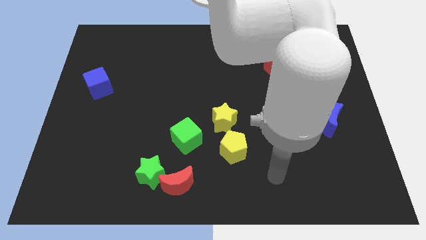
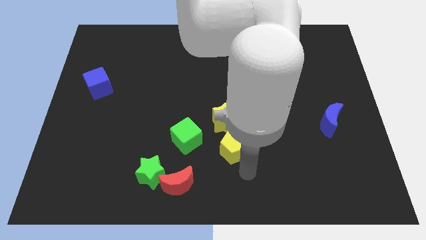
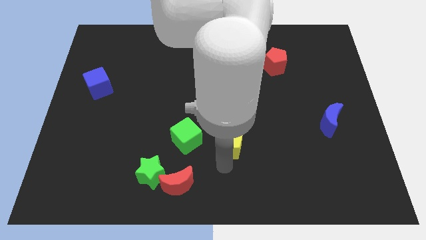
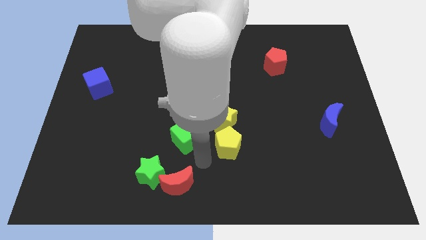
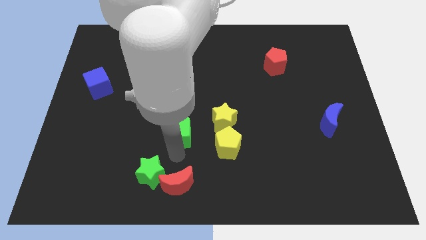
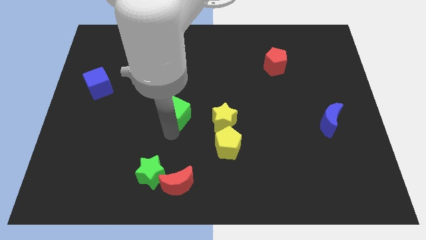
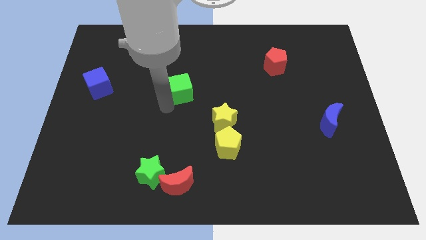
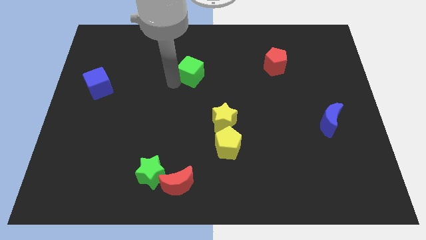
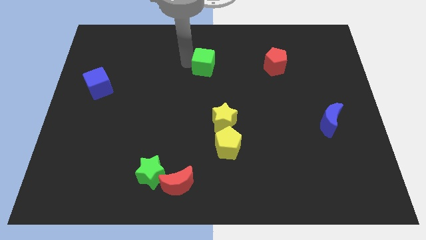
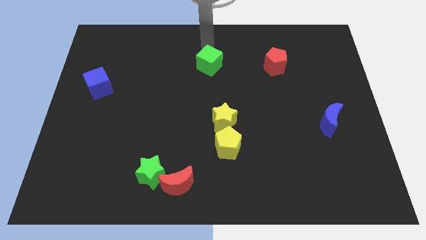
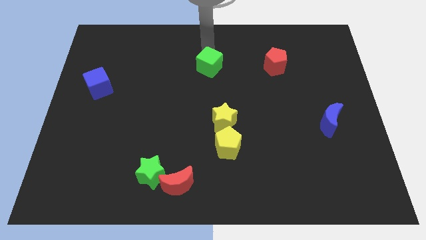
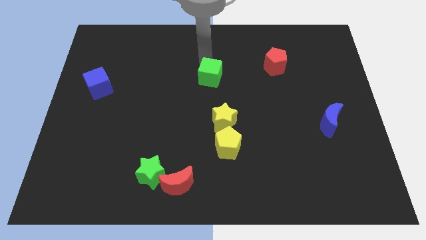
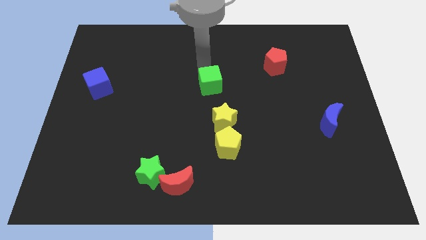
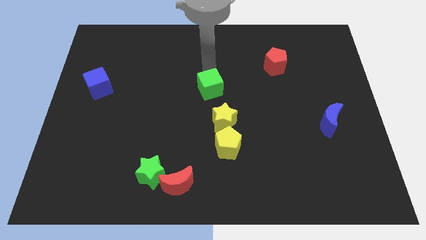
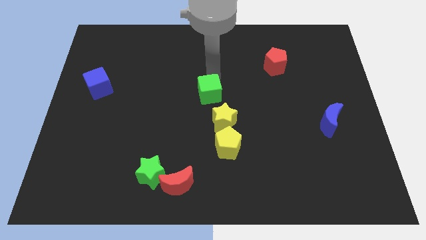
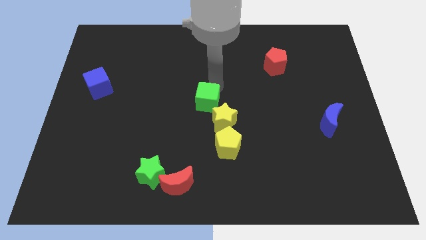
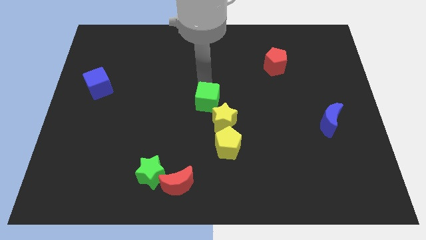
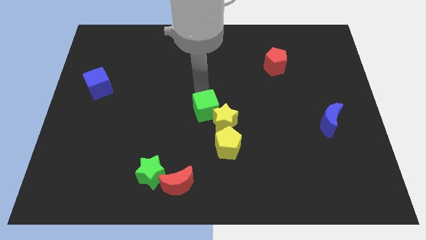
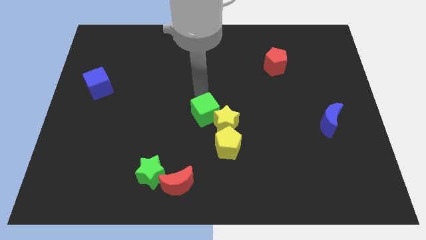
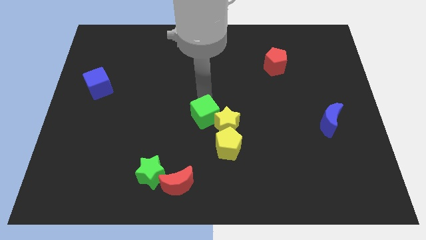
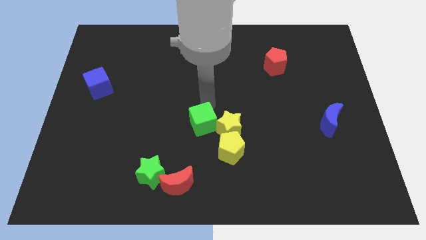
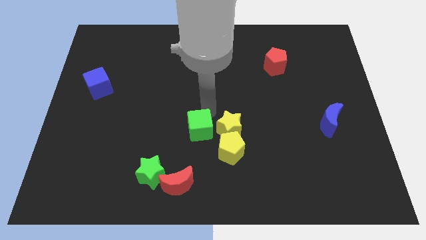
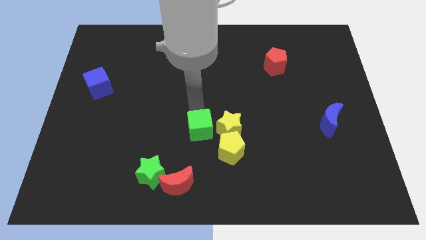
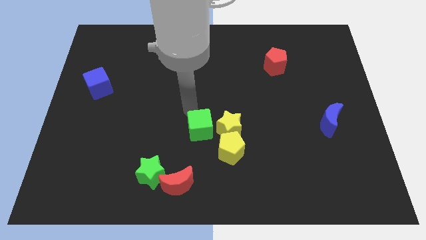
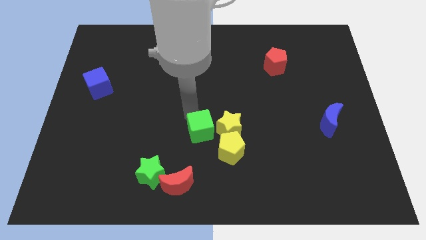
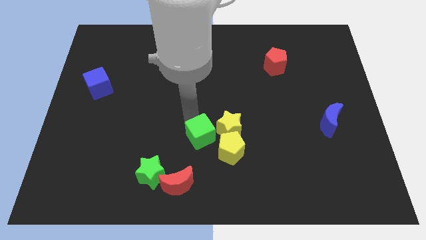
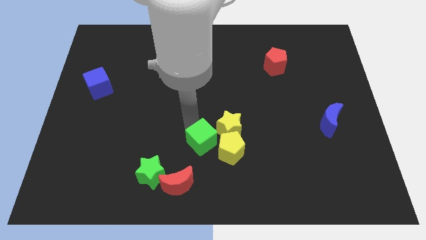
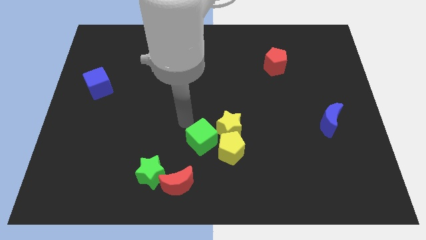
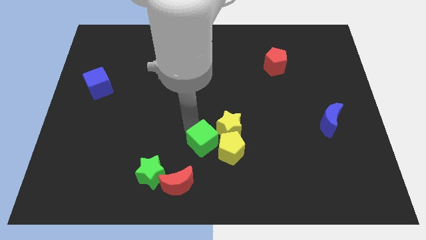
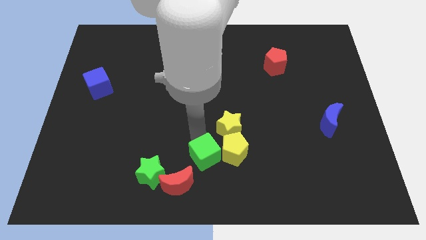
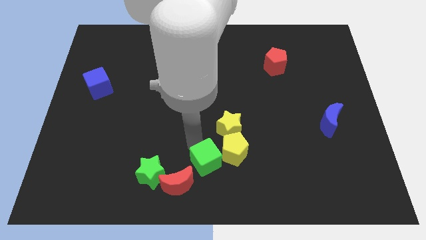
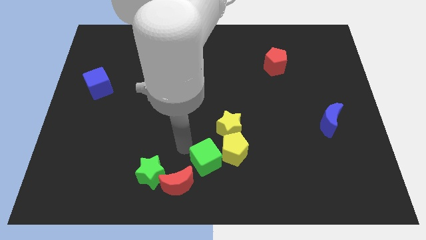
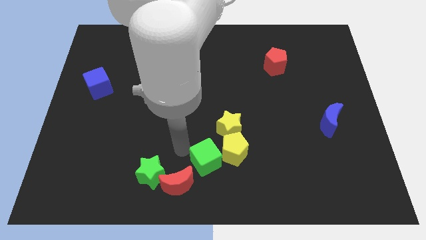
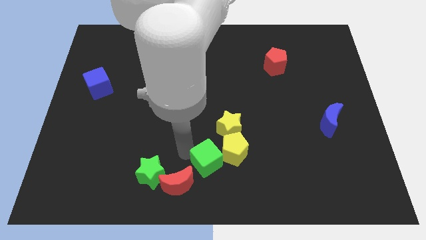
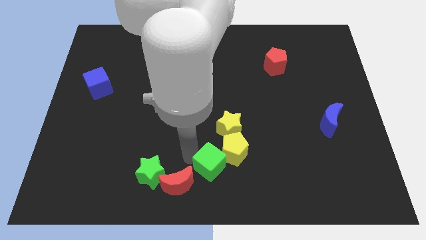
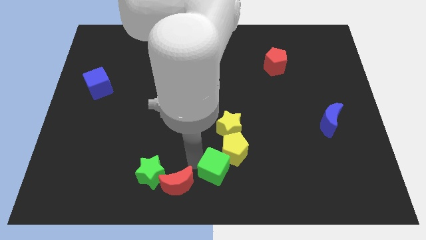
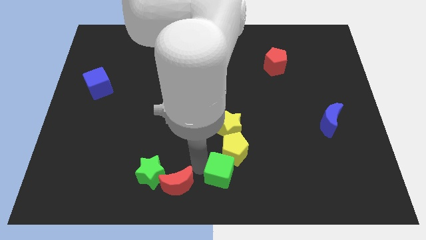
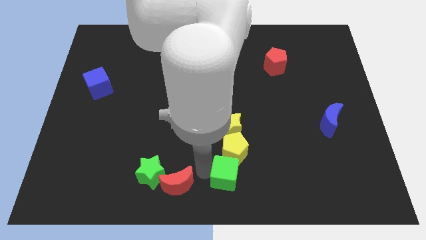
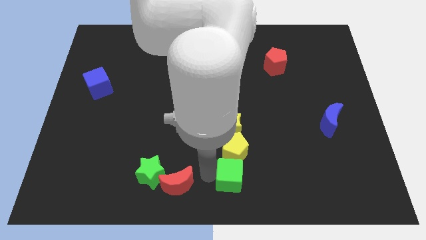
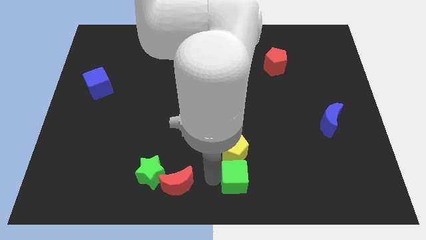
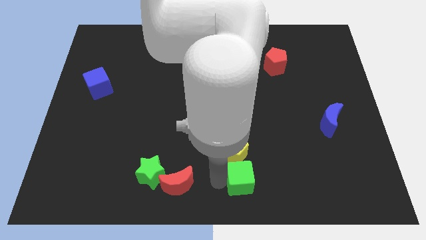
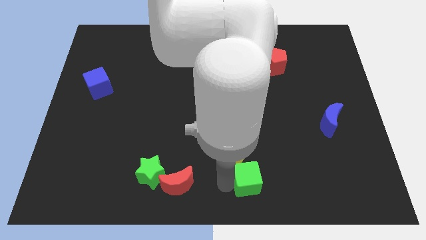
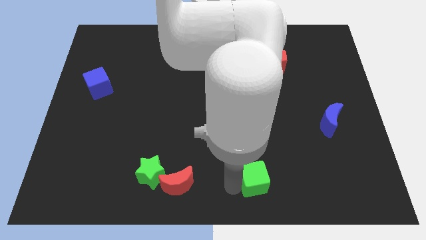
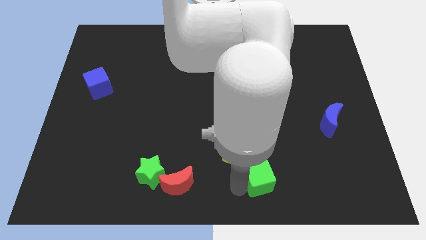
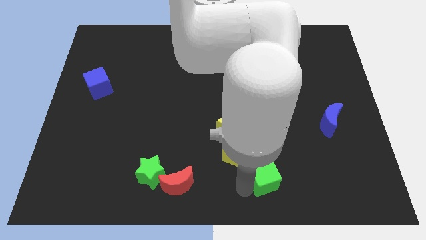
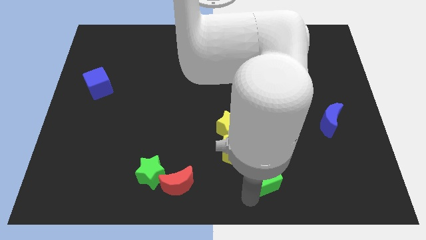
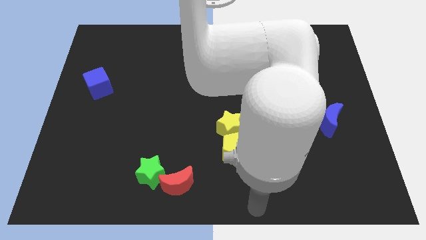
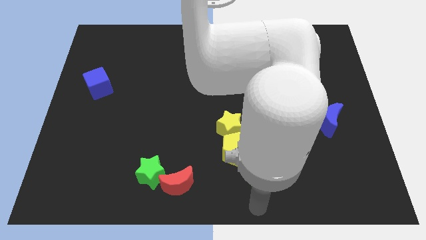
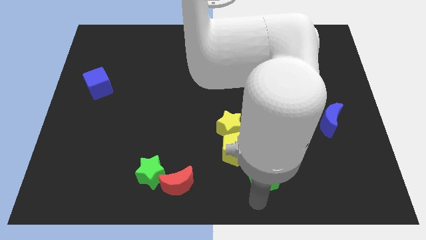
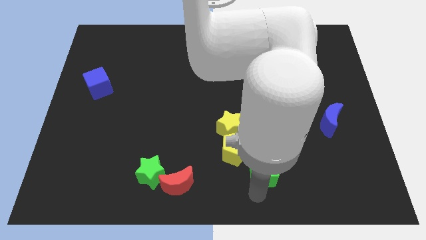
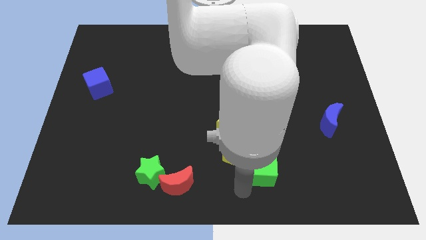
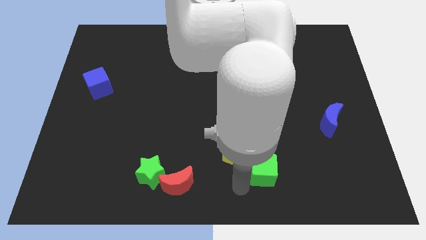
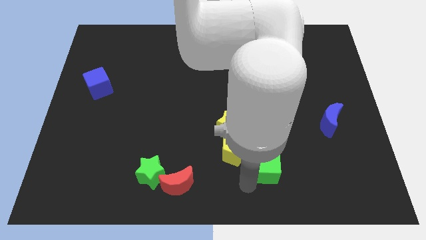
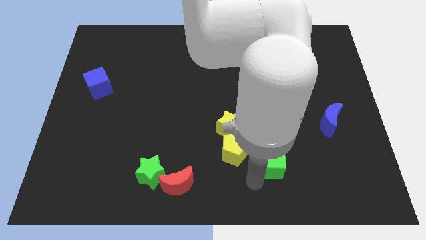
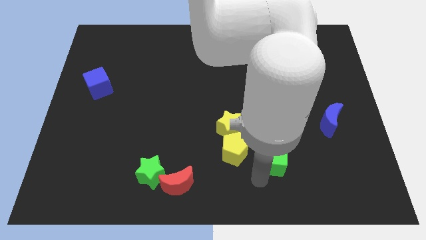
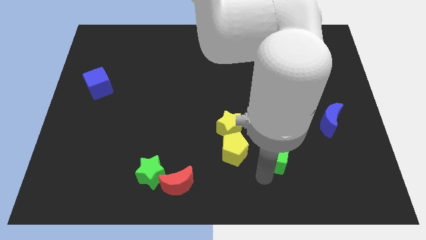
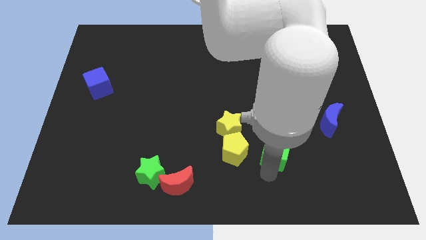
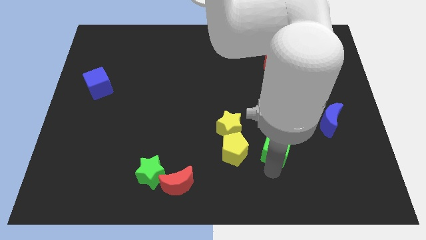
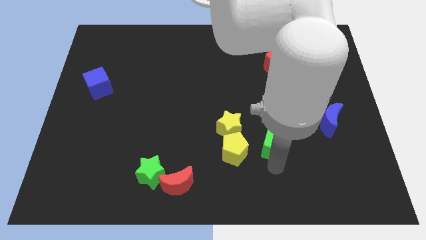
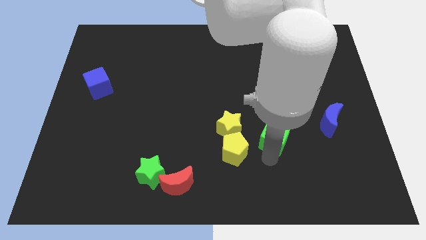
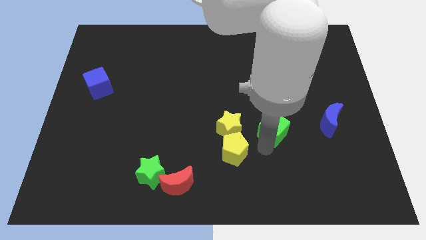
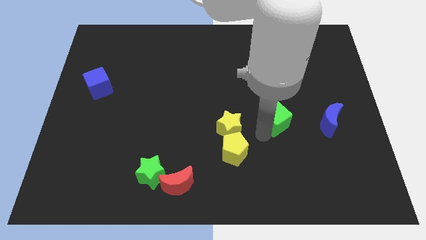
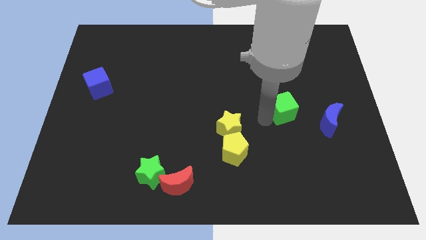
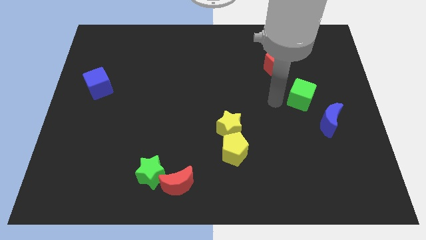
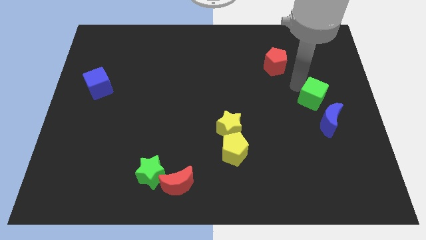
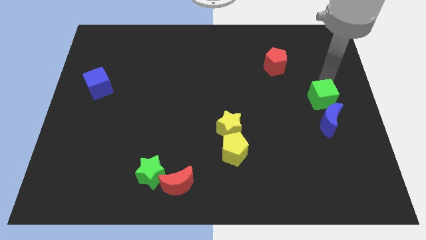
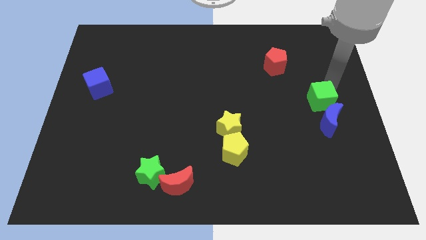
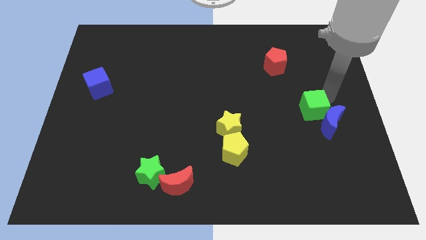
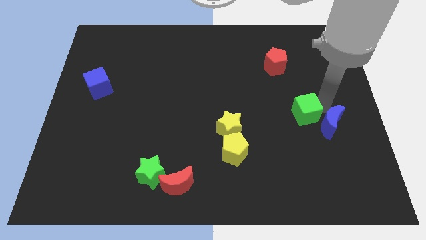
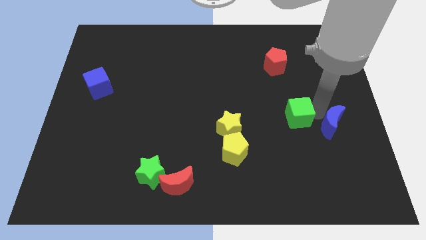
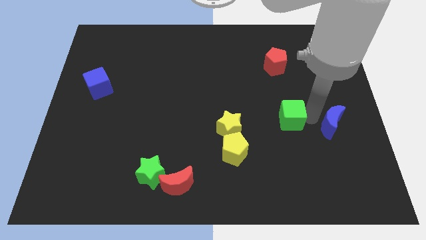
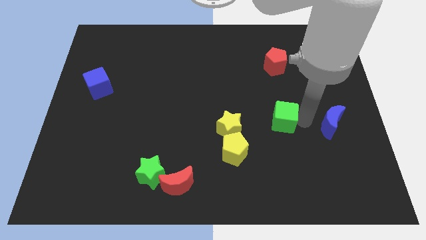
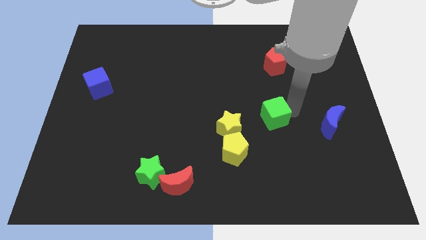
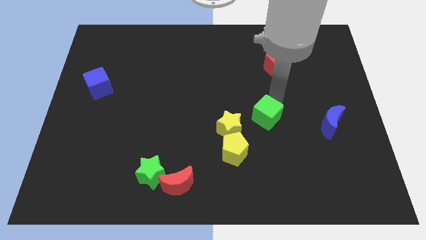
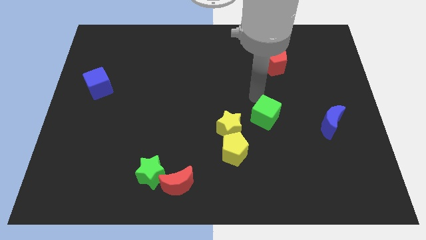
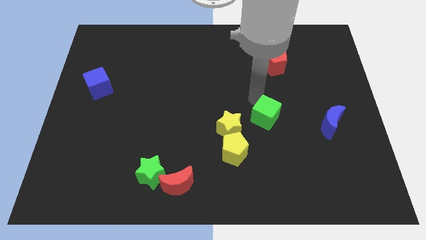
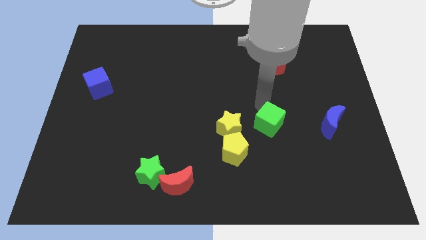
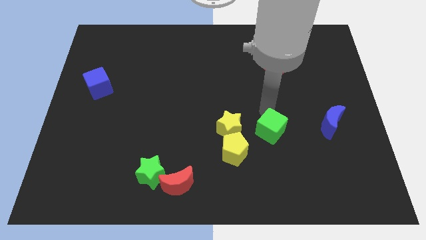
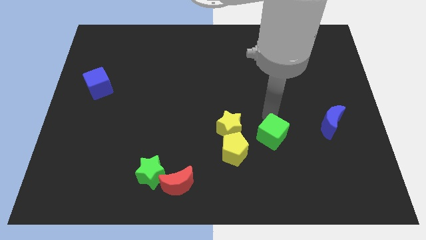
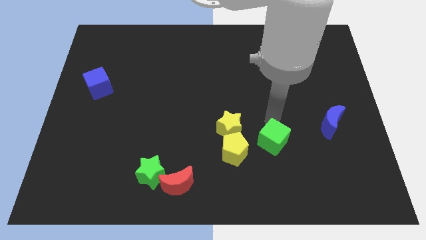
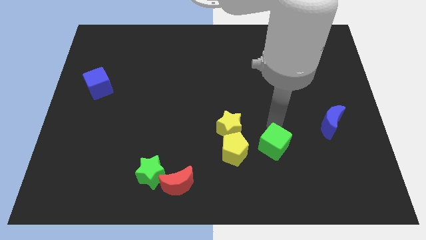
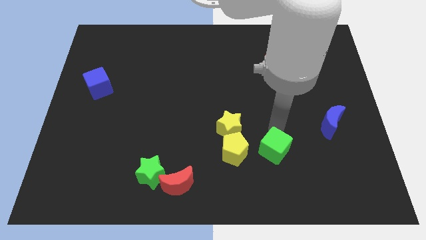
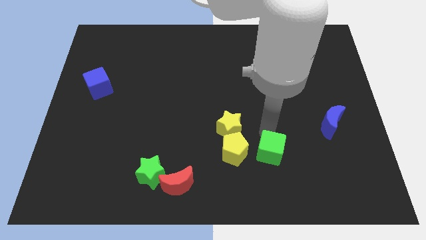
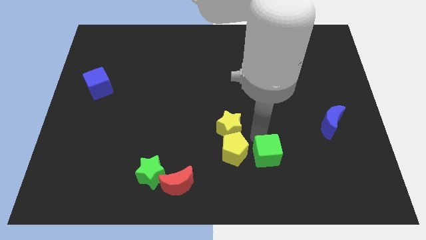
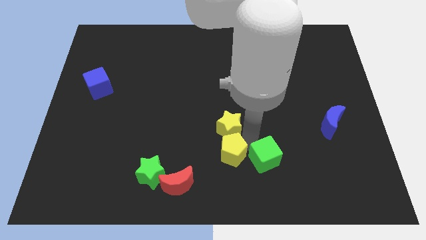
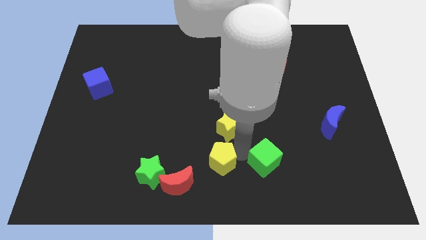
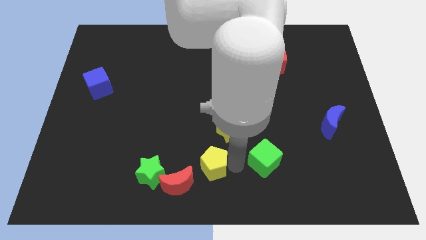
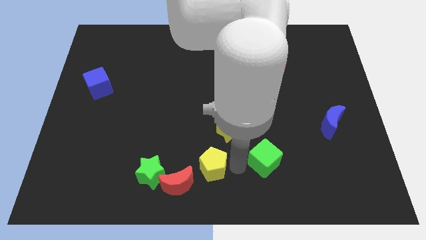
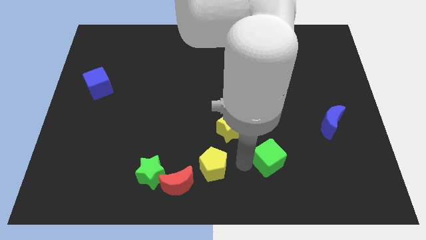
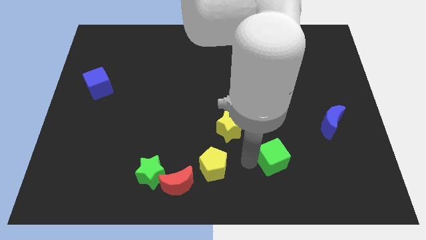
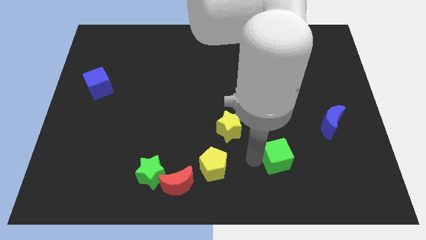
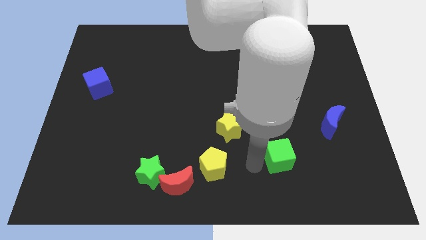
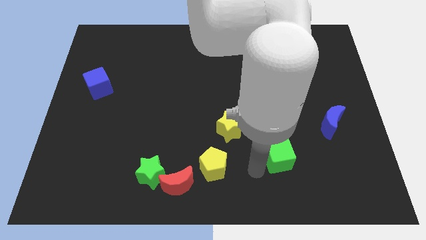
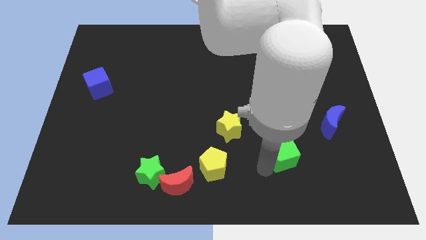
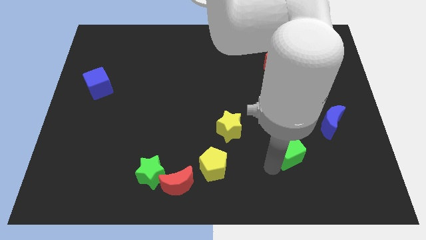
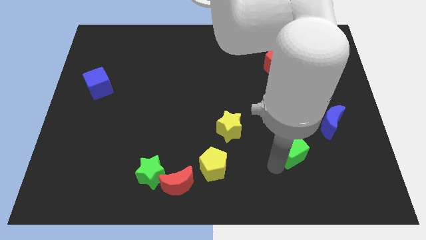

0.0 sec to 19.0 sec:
push the green cube diagonally down and to the left of the blue moon
